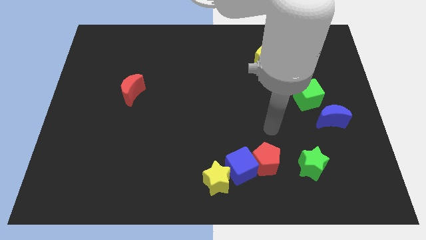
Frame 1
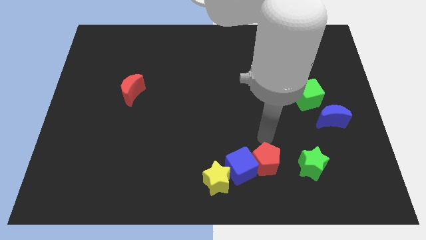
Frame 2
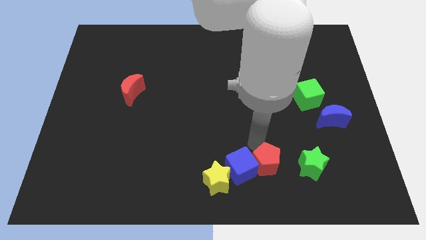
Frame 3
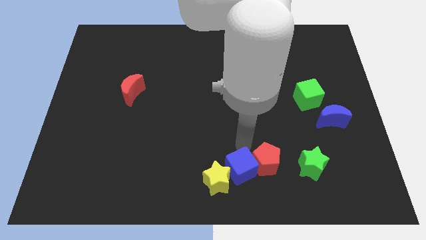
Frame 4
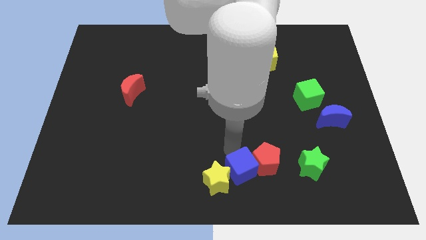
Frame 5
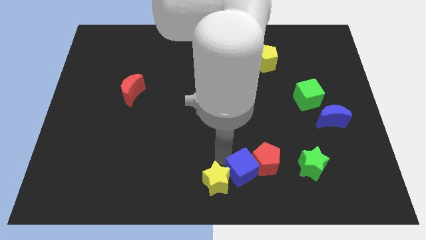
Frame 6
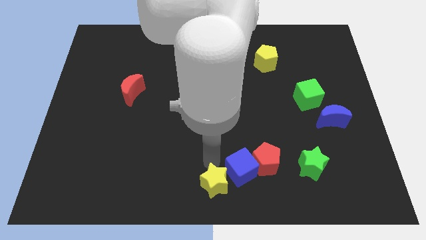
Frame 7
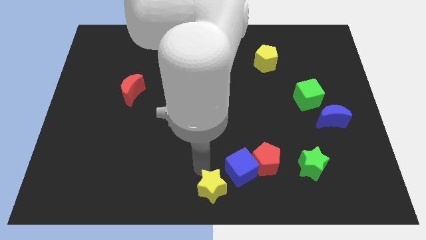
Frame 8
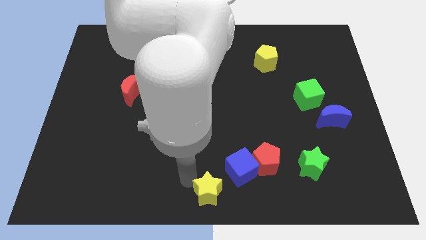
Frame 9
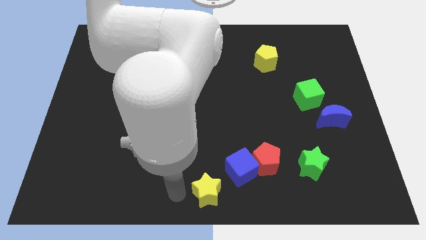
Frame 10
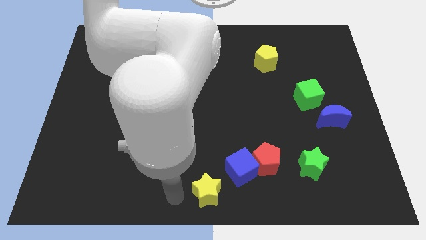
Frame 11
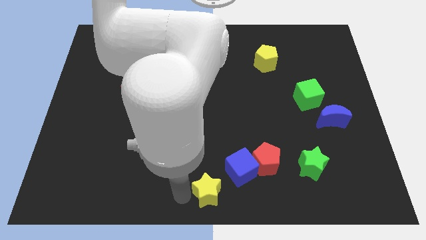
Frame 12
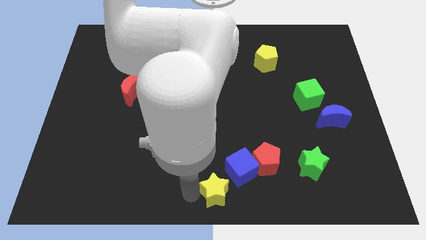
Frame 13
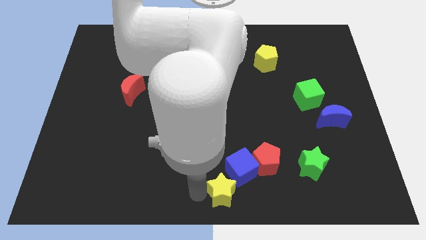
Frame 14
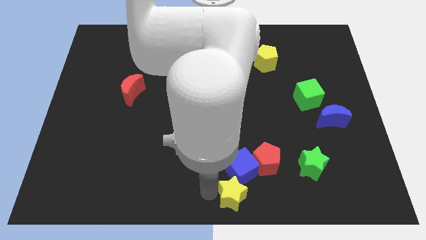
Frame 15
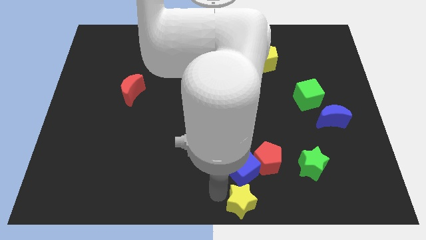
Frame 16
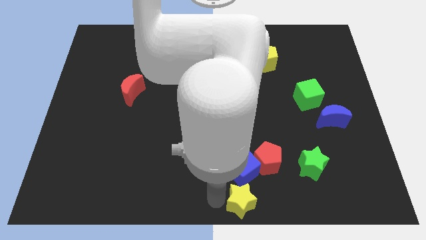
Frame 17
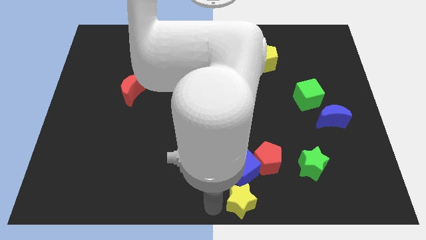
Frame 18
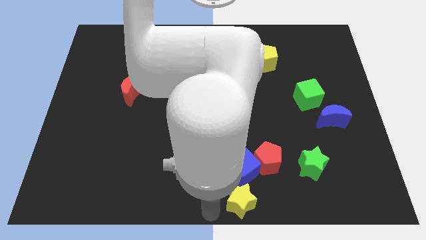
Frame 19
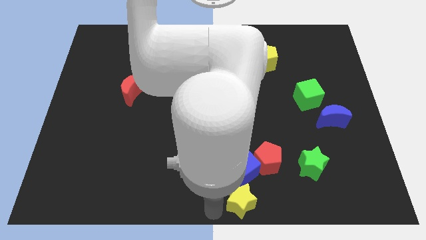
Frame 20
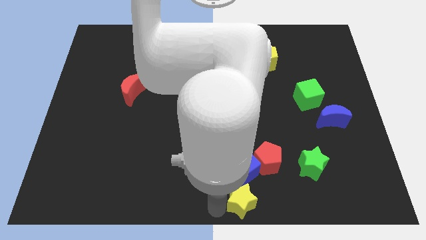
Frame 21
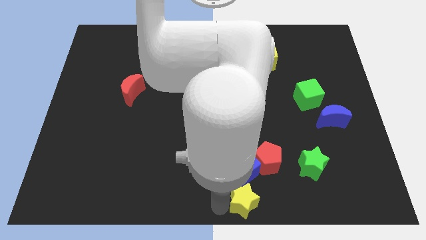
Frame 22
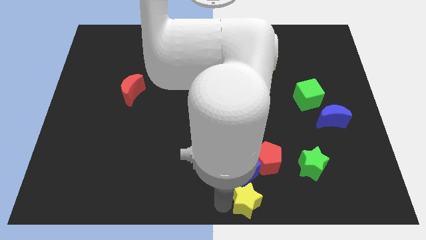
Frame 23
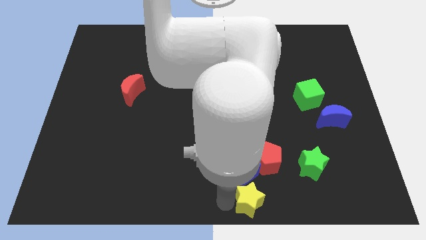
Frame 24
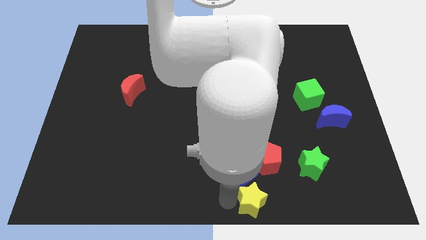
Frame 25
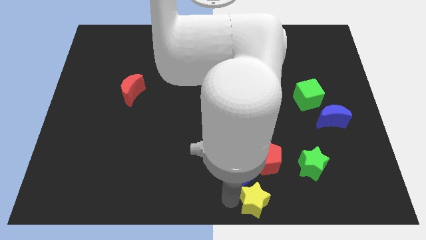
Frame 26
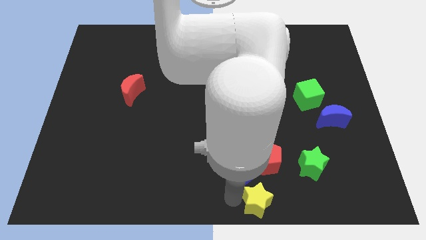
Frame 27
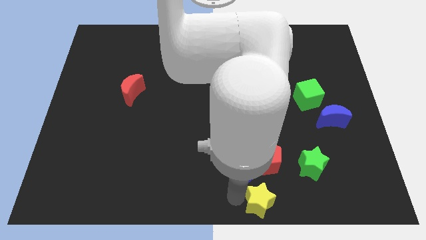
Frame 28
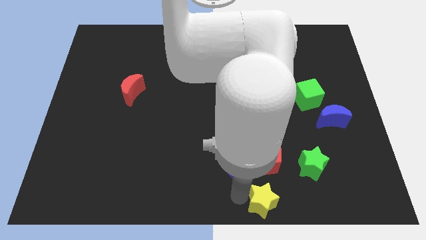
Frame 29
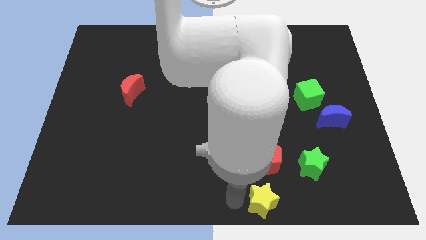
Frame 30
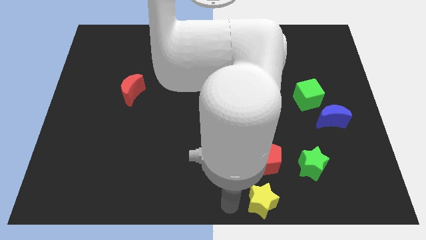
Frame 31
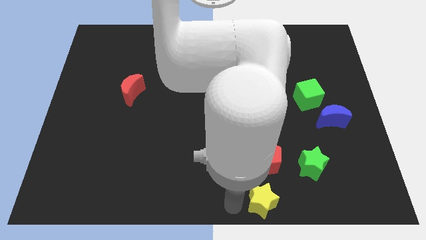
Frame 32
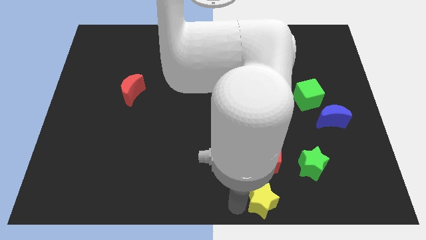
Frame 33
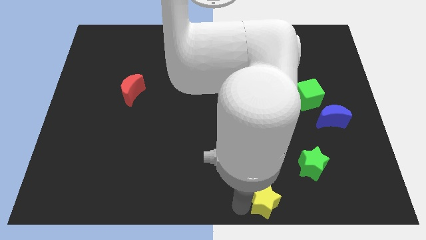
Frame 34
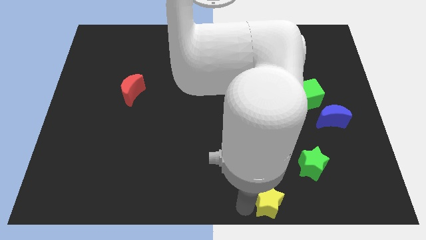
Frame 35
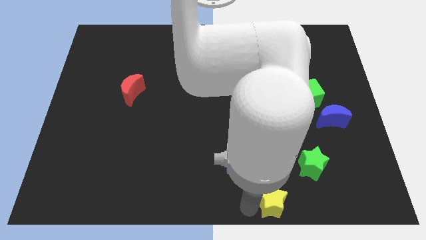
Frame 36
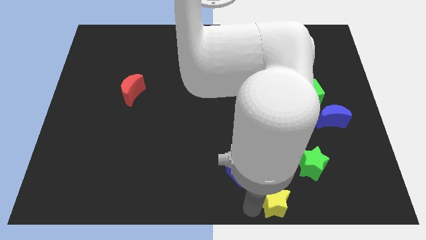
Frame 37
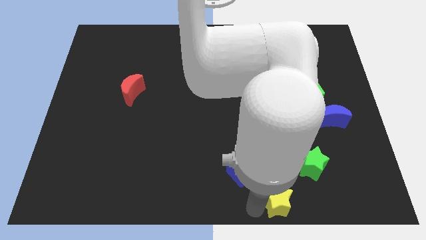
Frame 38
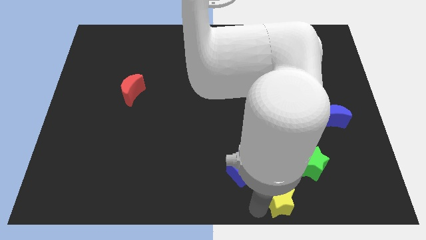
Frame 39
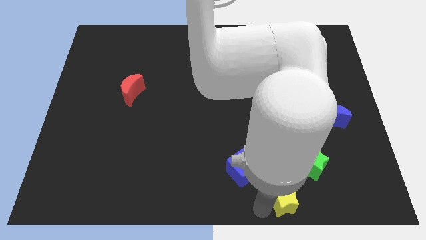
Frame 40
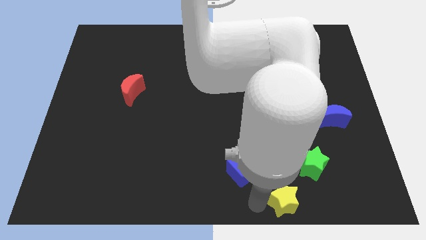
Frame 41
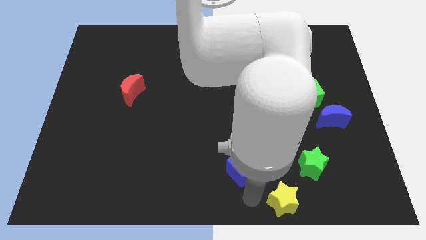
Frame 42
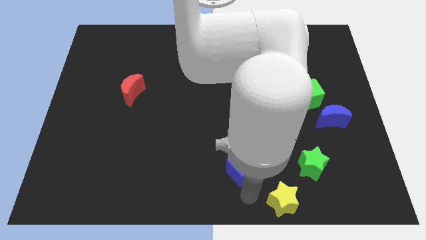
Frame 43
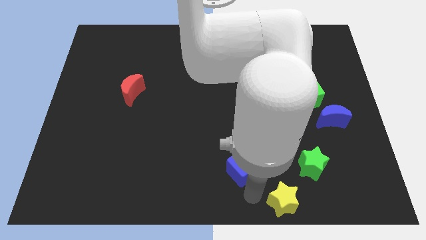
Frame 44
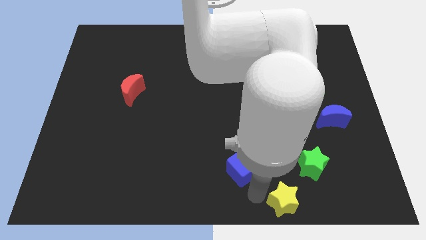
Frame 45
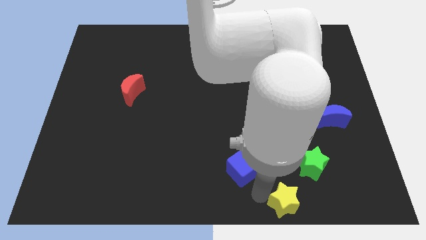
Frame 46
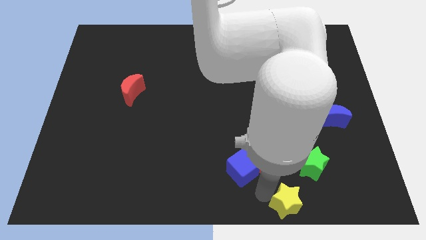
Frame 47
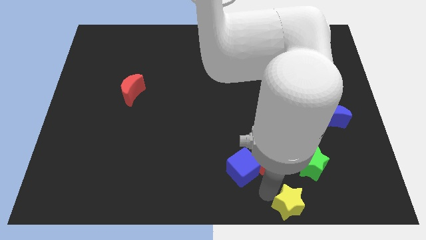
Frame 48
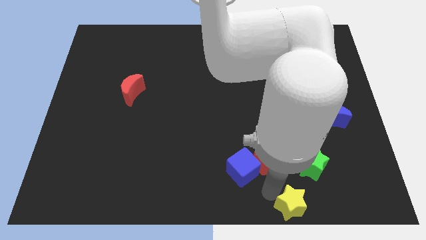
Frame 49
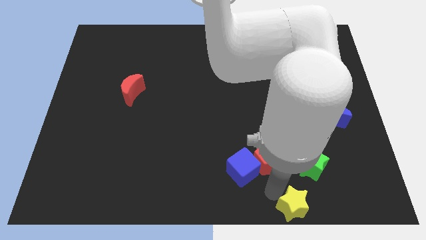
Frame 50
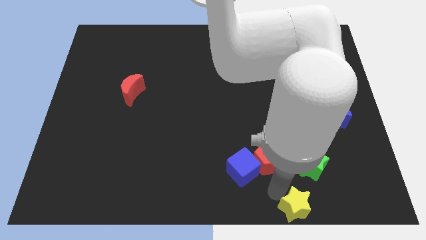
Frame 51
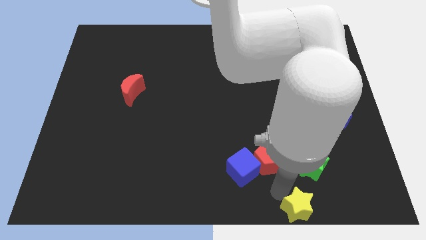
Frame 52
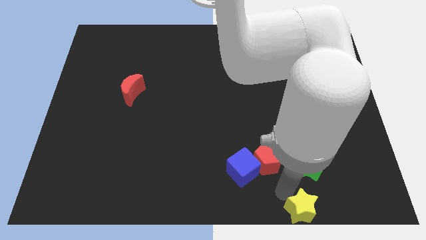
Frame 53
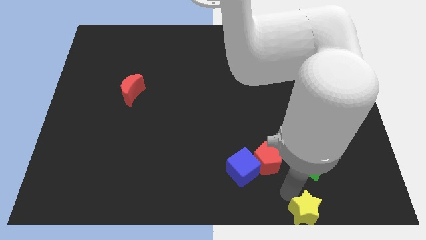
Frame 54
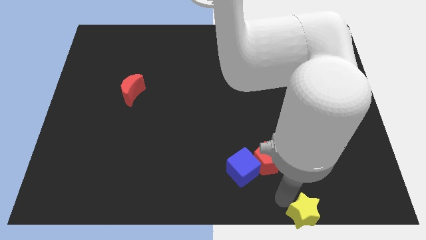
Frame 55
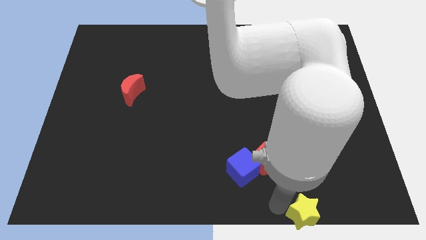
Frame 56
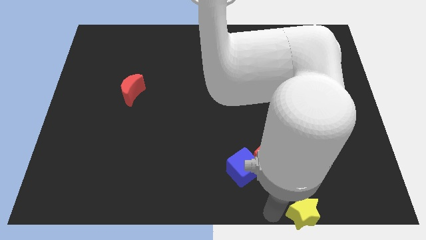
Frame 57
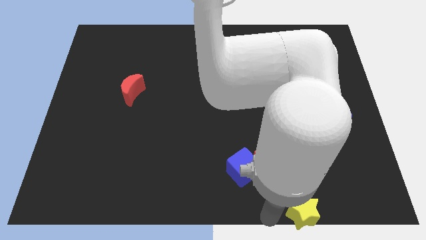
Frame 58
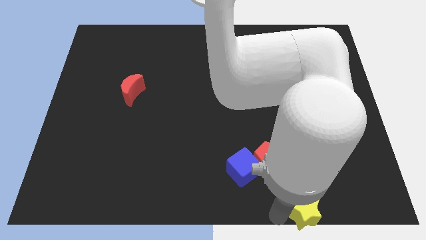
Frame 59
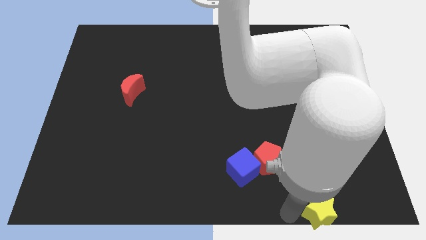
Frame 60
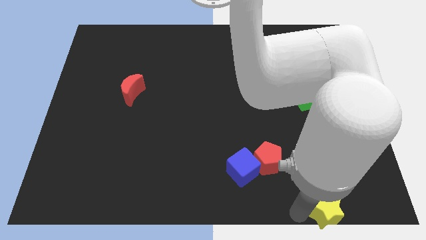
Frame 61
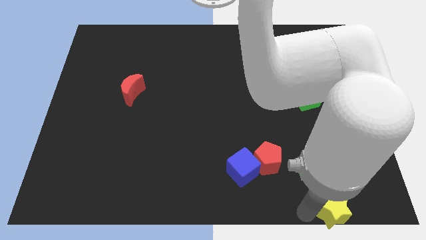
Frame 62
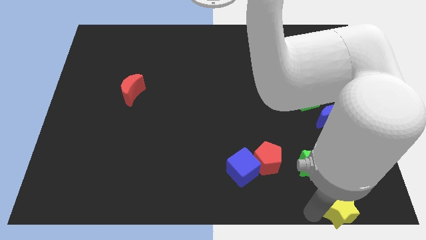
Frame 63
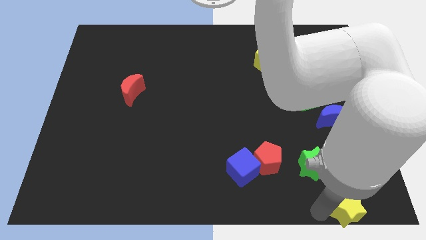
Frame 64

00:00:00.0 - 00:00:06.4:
put the yellow star to the bottom right corner
